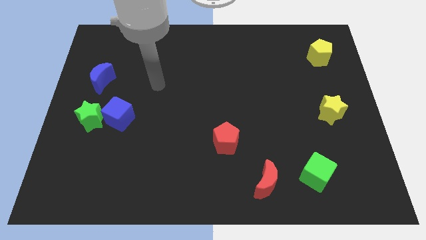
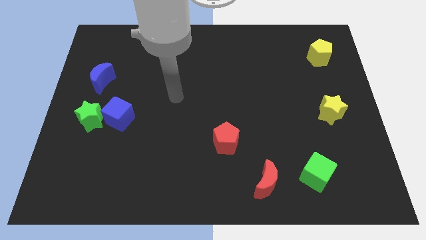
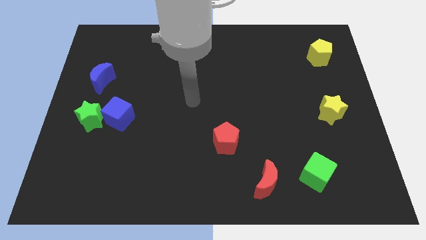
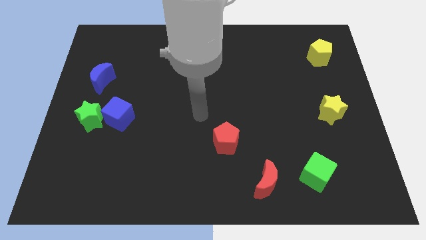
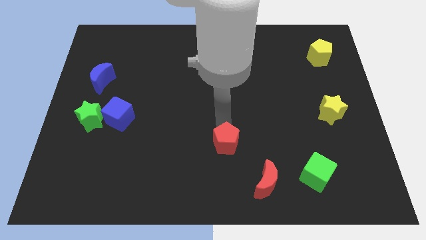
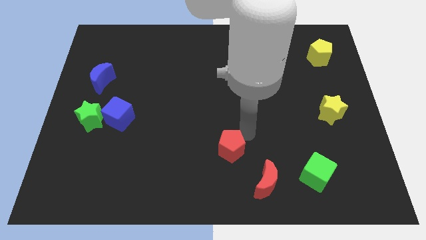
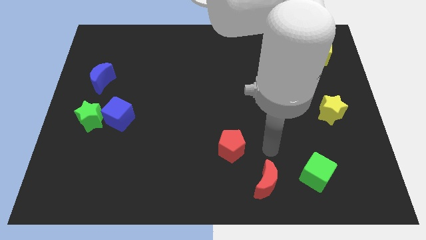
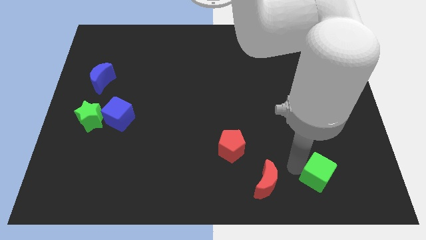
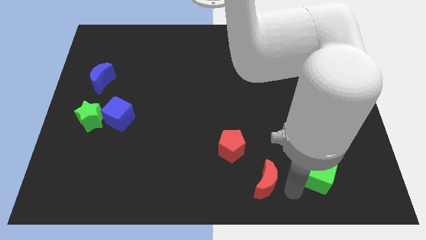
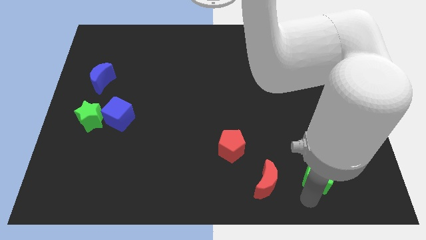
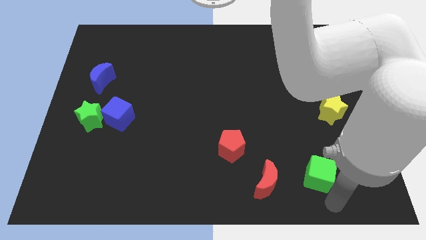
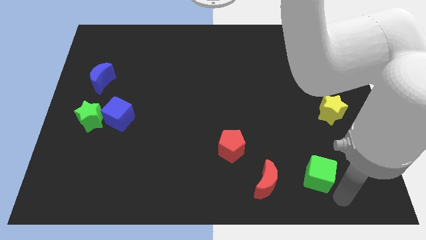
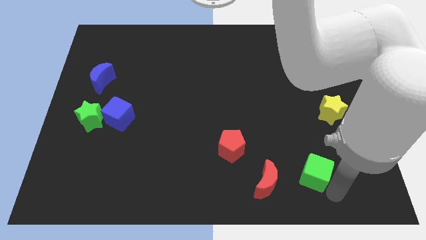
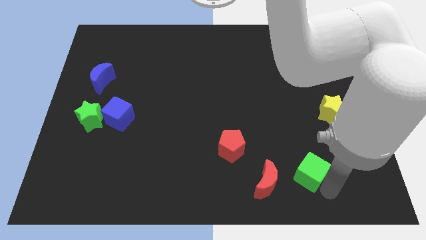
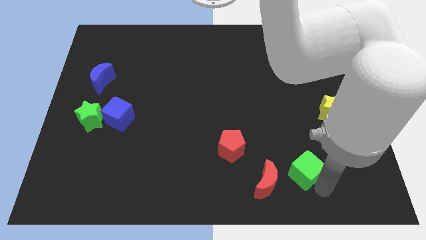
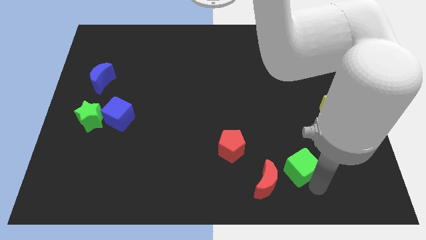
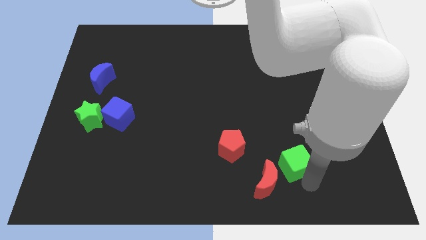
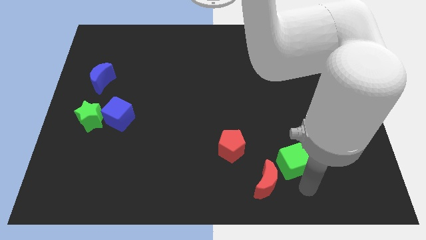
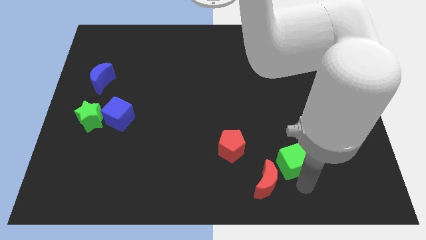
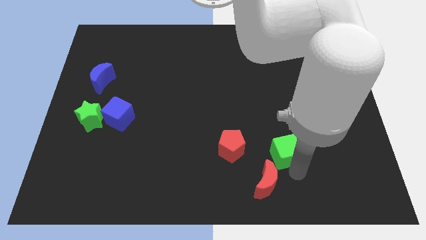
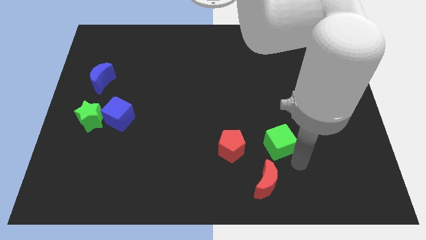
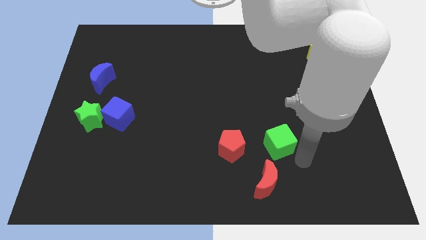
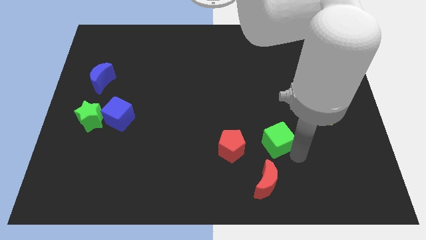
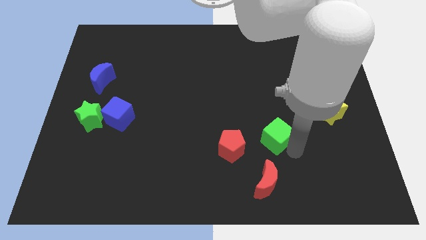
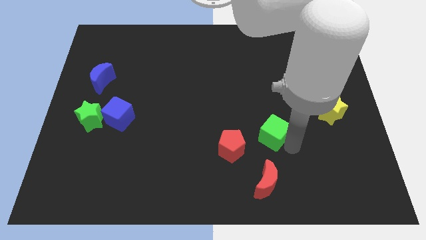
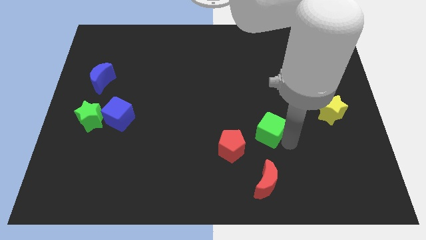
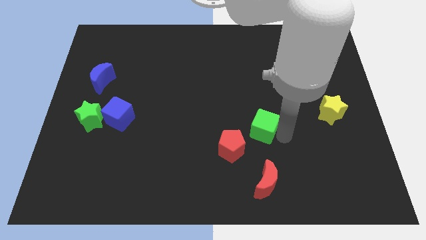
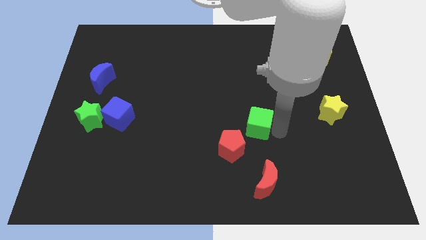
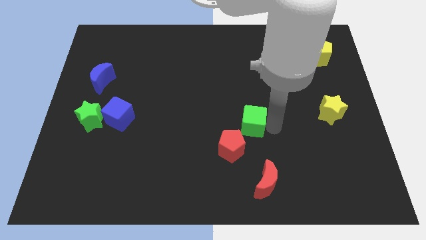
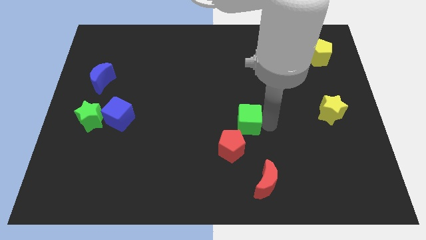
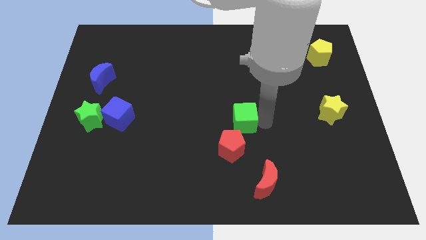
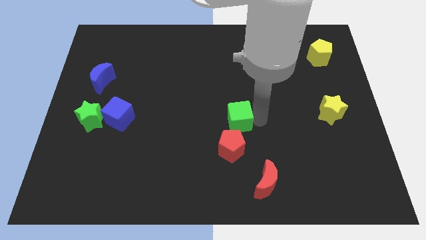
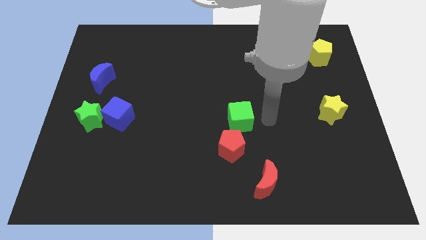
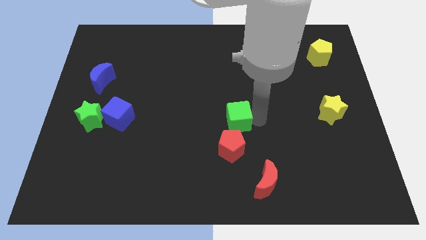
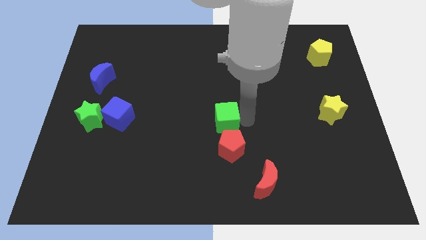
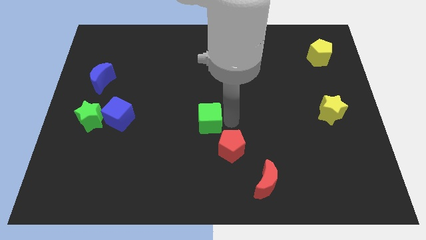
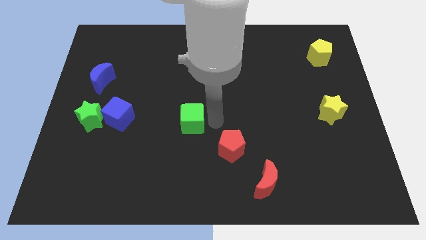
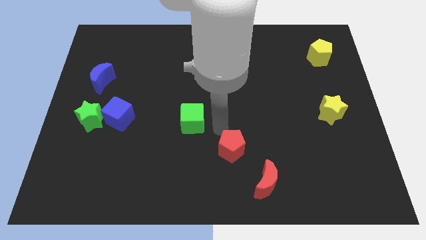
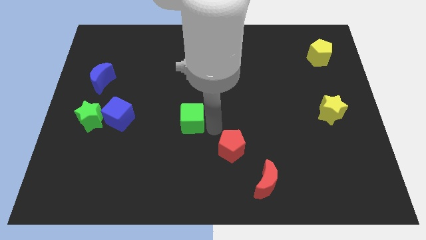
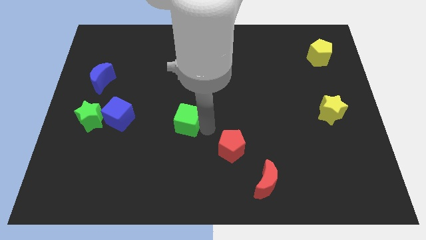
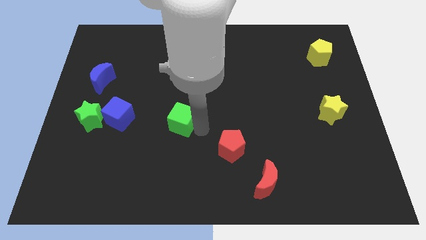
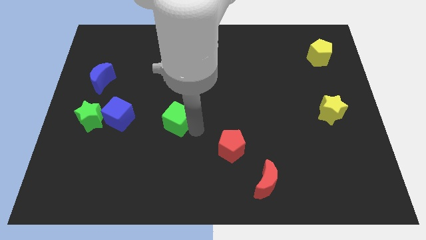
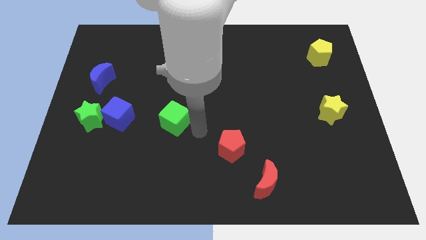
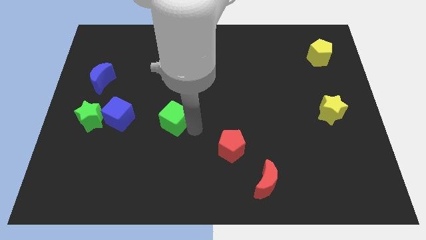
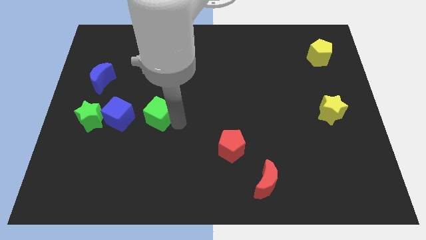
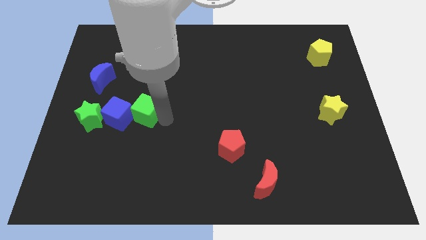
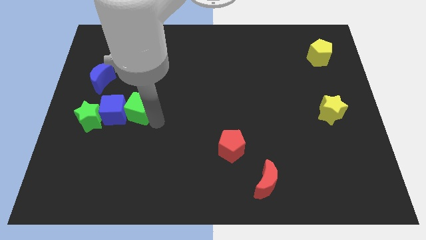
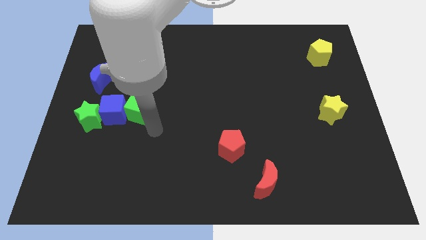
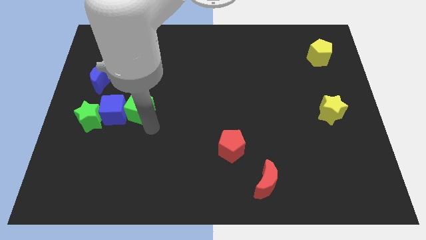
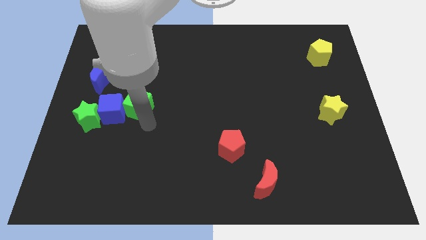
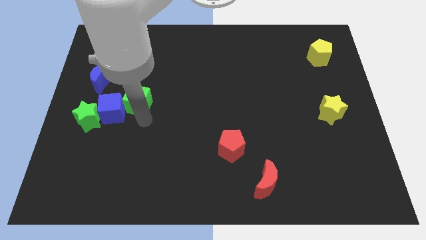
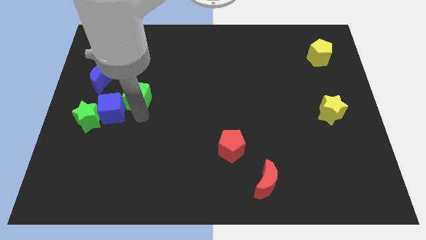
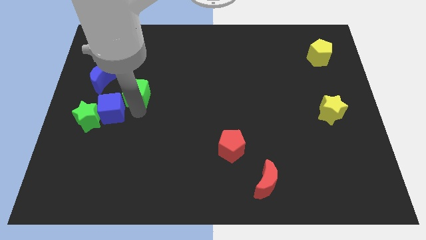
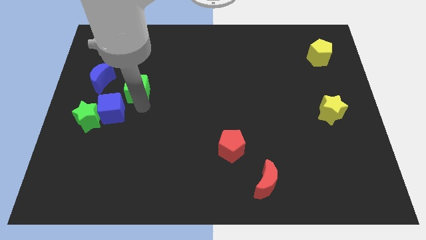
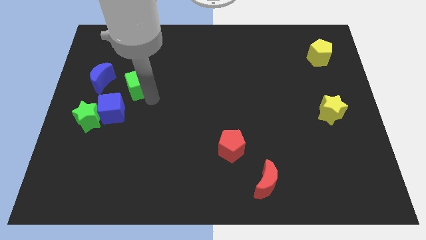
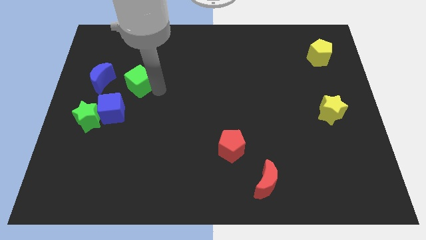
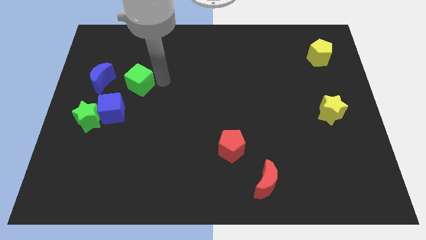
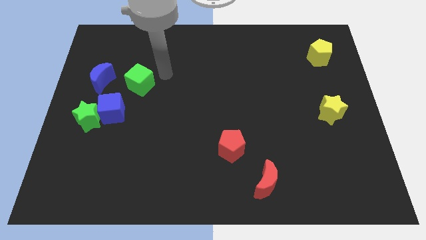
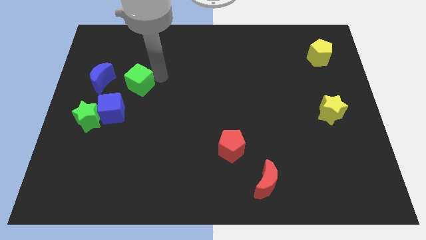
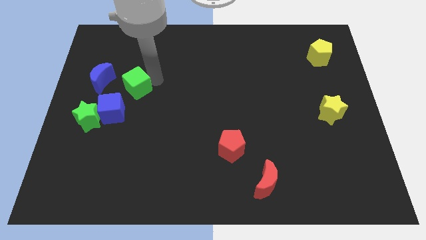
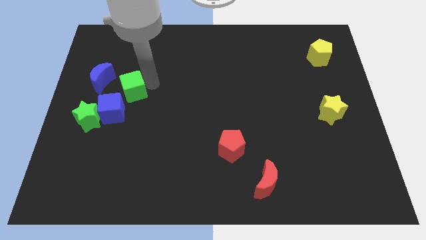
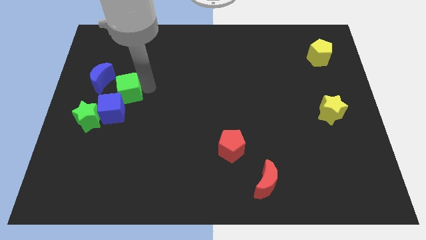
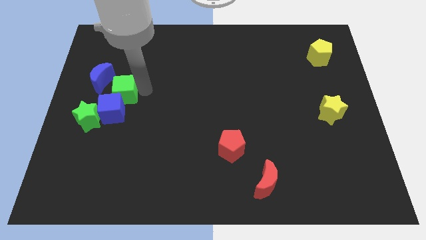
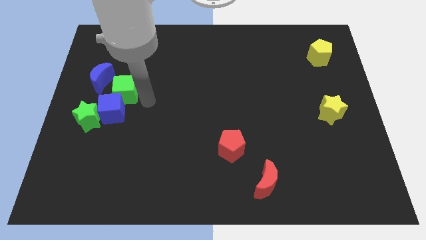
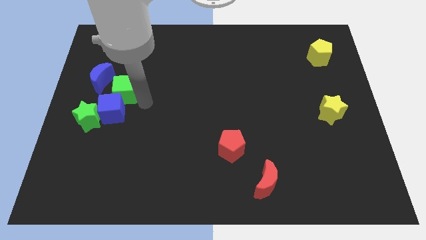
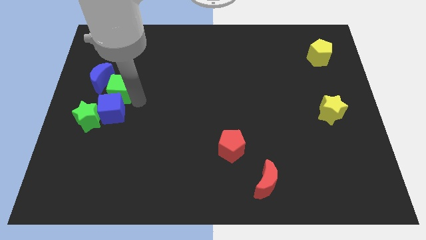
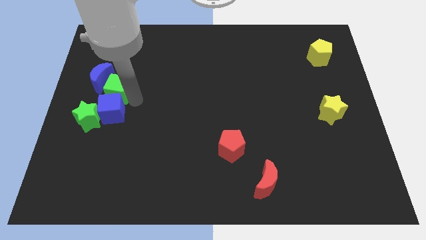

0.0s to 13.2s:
move the green cube close to the blue moon
